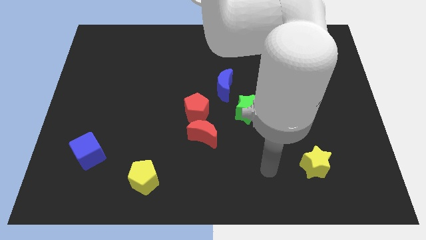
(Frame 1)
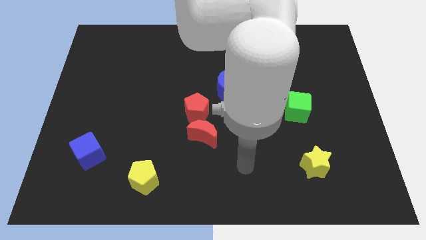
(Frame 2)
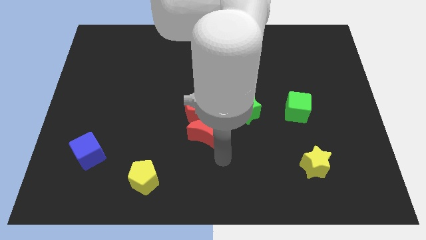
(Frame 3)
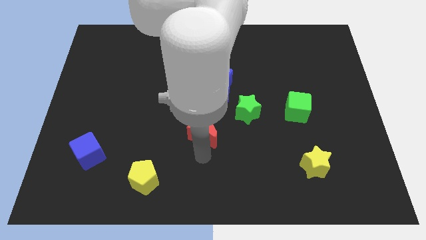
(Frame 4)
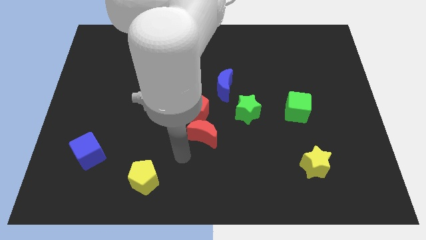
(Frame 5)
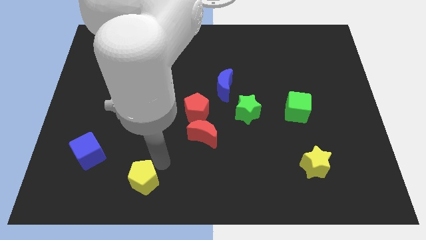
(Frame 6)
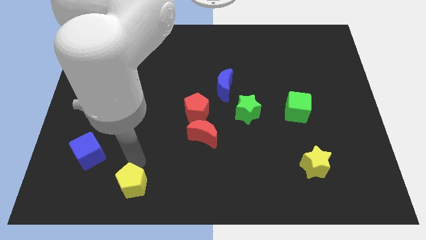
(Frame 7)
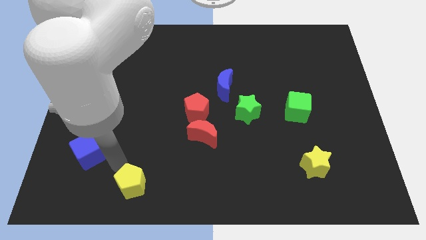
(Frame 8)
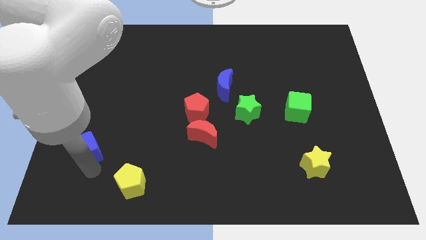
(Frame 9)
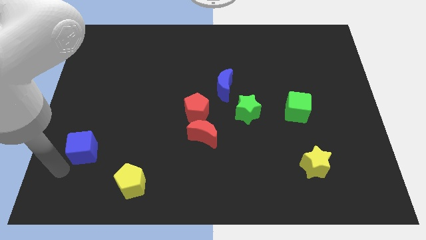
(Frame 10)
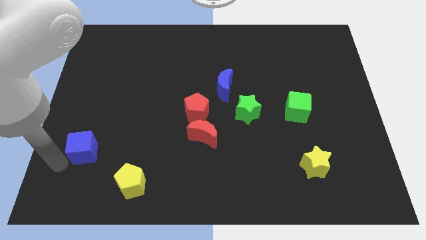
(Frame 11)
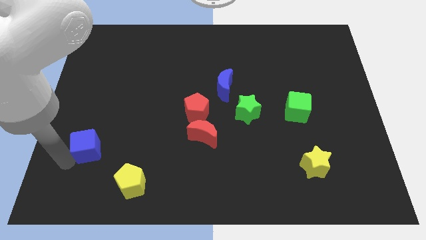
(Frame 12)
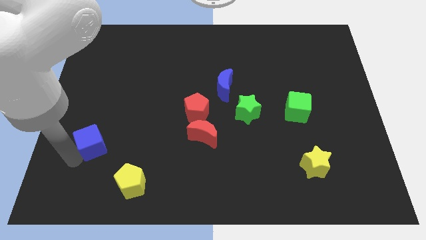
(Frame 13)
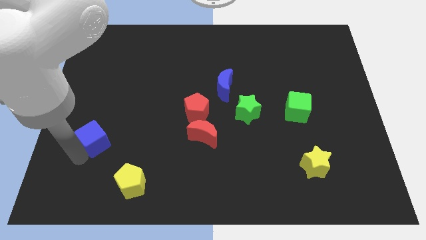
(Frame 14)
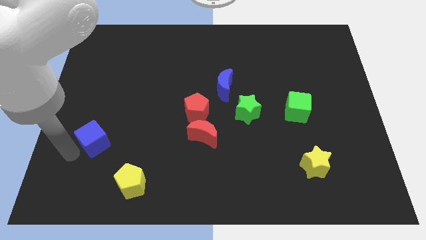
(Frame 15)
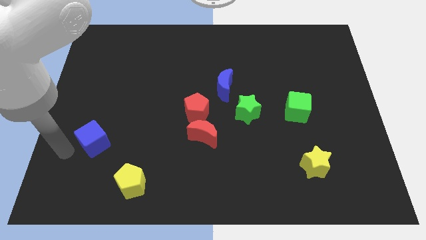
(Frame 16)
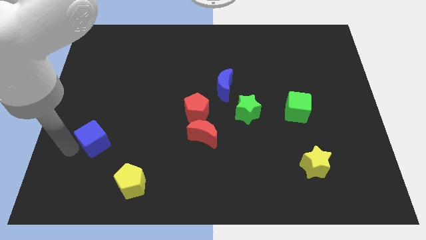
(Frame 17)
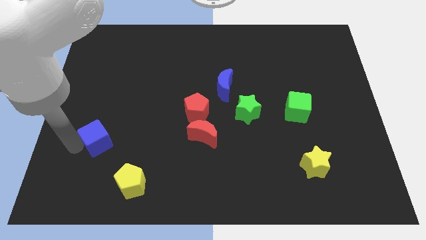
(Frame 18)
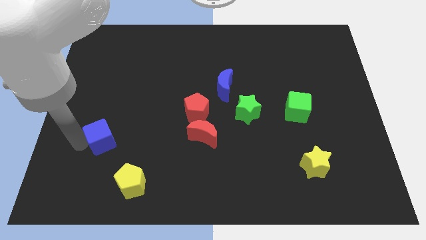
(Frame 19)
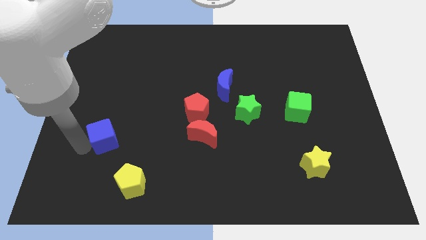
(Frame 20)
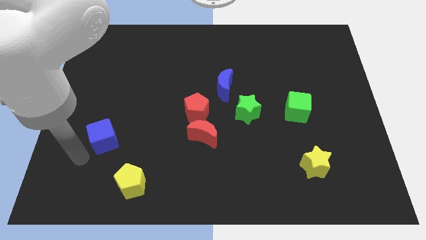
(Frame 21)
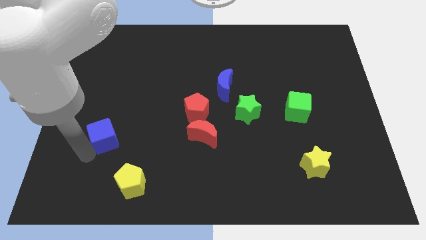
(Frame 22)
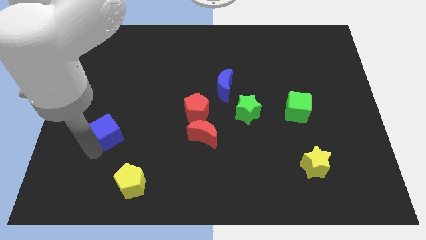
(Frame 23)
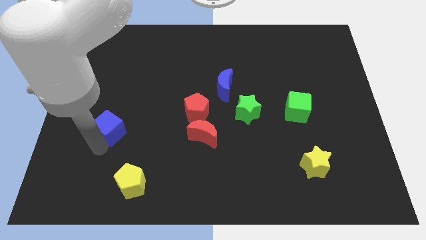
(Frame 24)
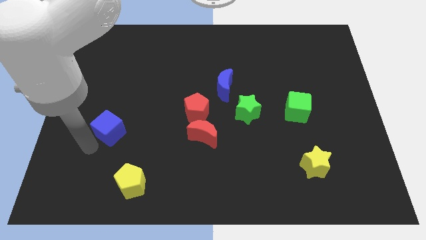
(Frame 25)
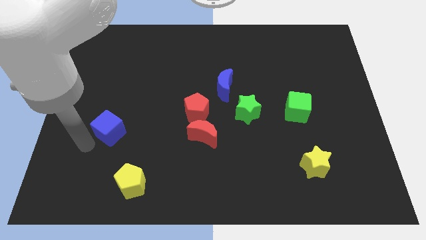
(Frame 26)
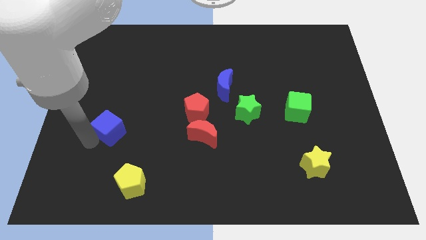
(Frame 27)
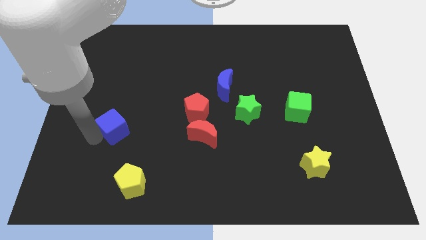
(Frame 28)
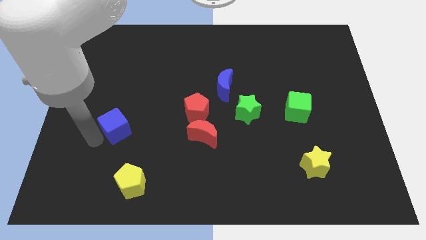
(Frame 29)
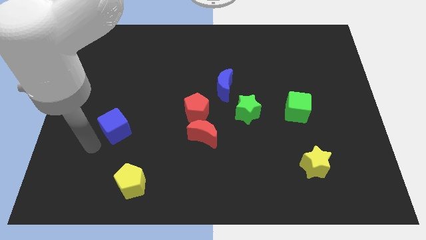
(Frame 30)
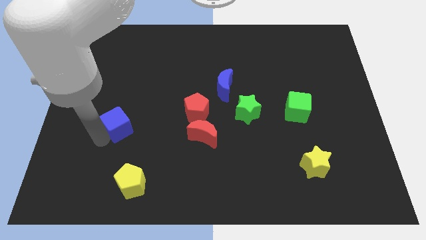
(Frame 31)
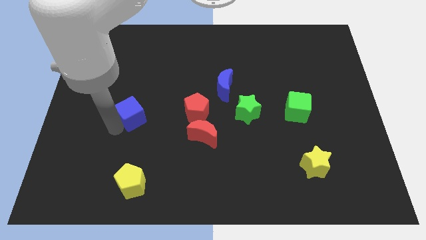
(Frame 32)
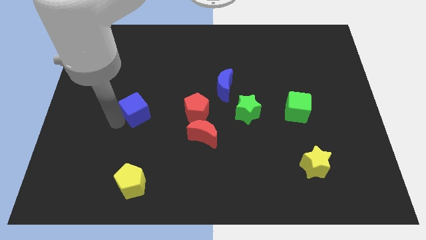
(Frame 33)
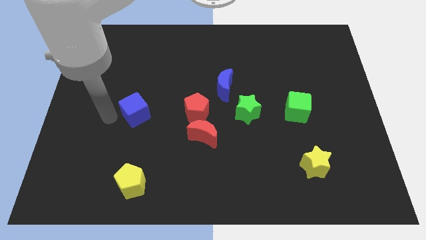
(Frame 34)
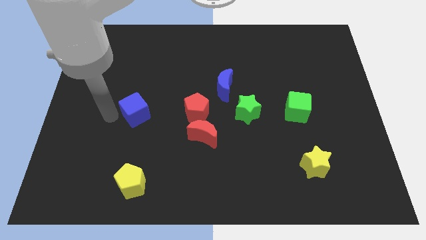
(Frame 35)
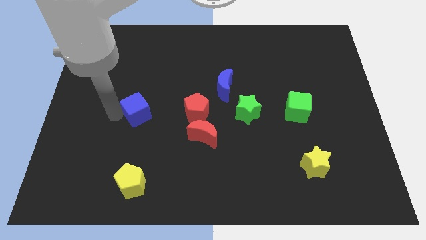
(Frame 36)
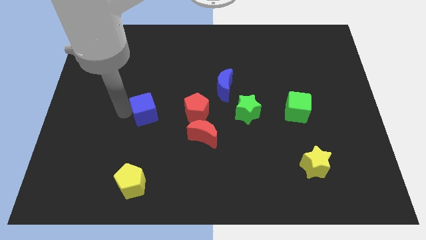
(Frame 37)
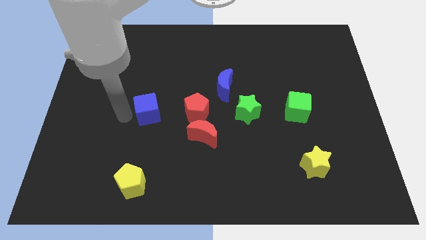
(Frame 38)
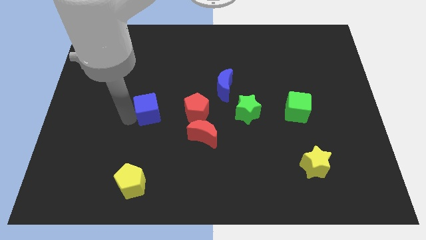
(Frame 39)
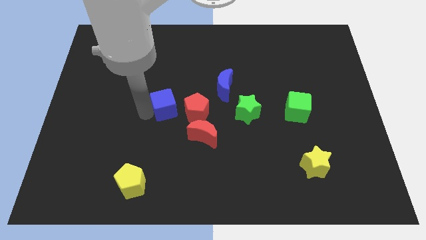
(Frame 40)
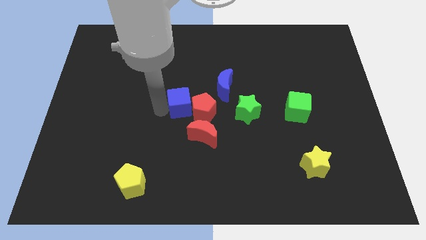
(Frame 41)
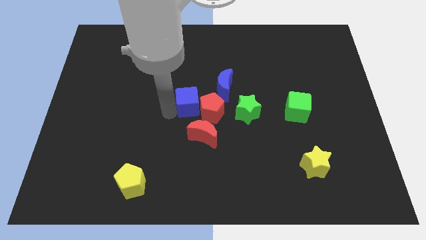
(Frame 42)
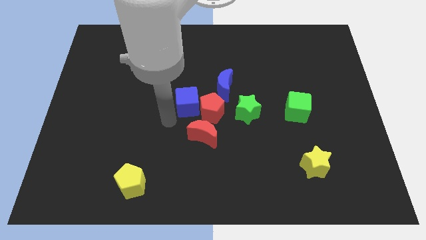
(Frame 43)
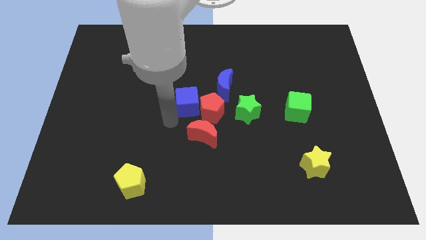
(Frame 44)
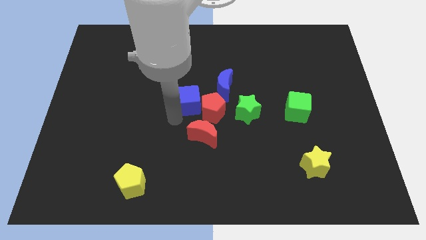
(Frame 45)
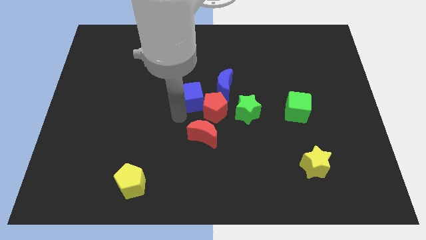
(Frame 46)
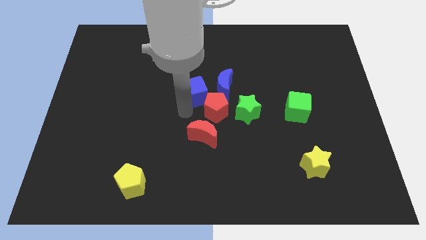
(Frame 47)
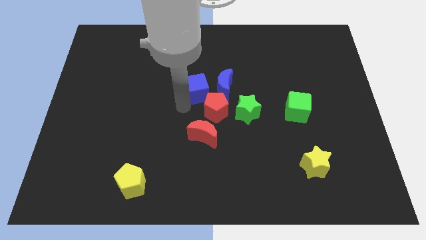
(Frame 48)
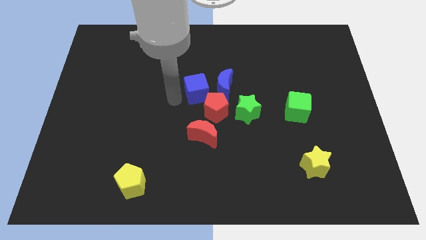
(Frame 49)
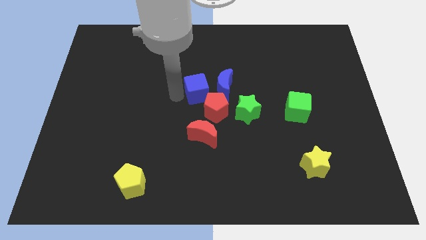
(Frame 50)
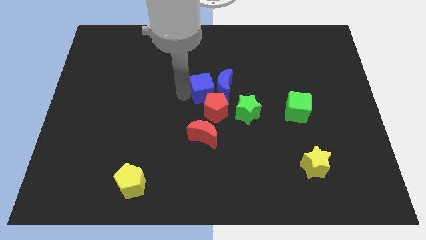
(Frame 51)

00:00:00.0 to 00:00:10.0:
put the blue cube towards the blue moon

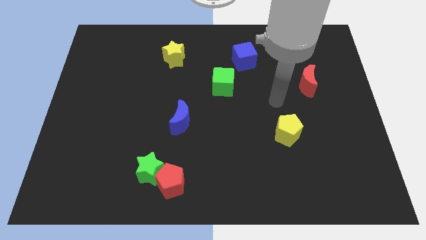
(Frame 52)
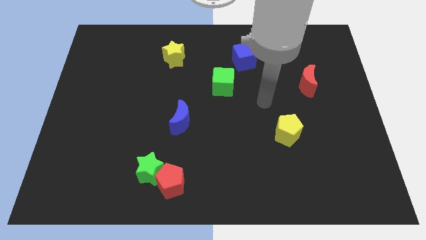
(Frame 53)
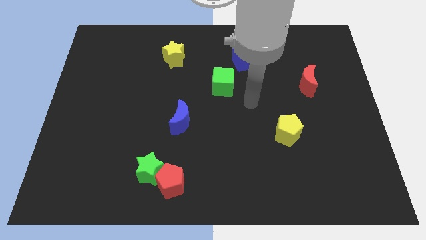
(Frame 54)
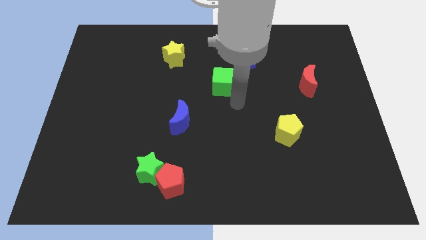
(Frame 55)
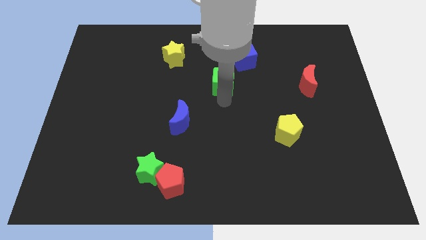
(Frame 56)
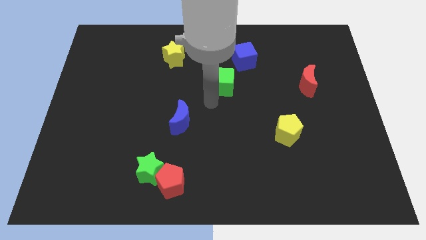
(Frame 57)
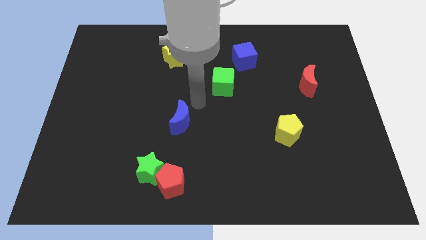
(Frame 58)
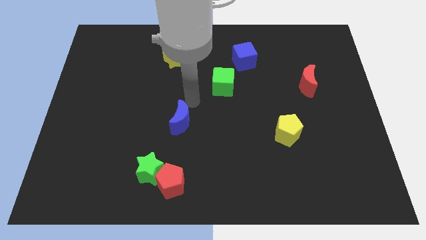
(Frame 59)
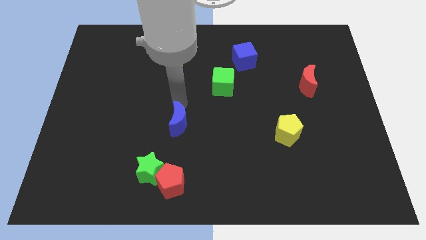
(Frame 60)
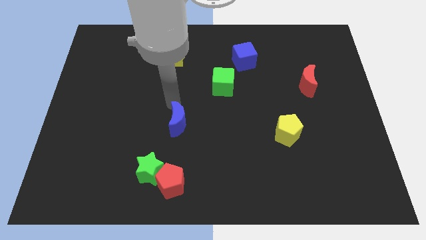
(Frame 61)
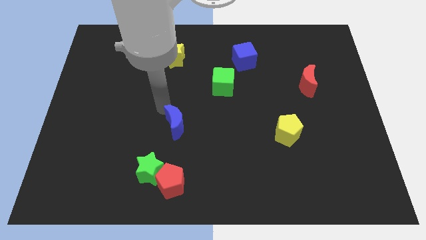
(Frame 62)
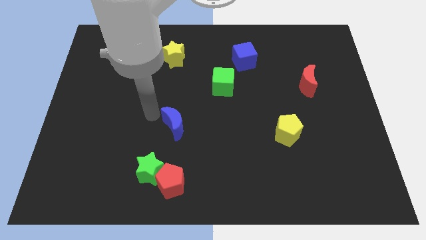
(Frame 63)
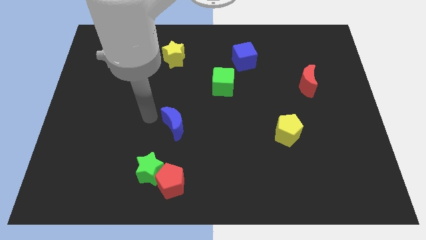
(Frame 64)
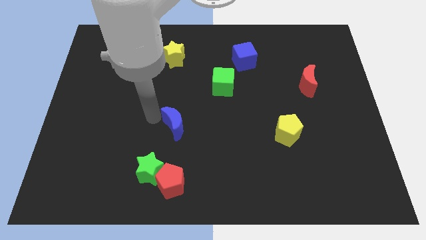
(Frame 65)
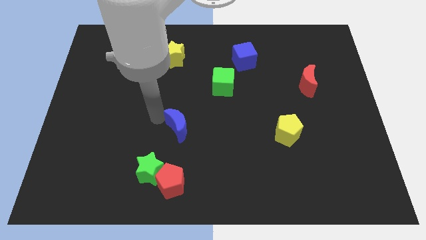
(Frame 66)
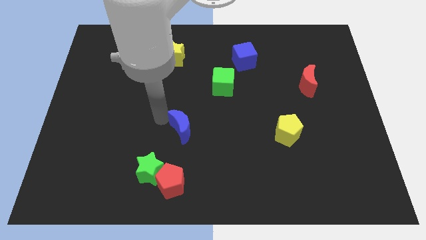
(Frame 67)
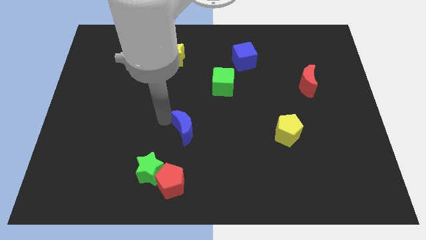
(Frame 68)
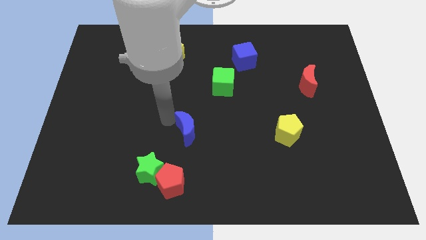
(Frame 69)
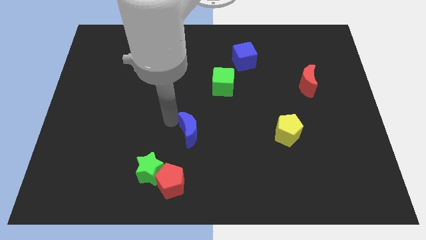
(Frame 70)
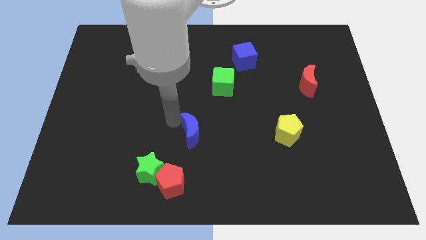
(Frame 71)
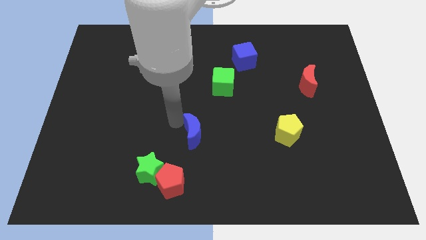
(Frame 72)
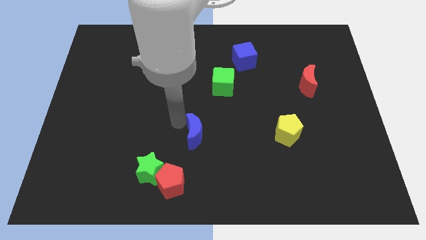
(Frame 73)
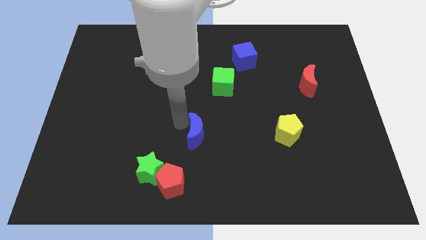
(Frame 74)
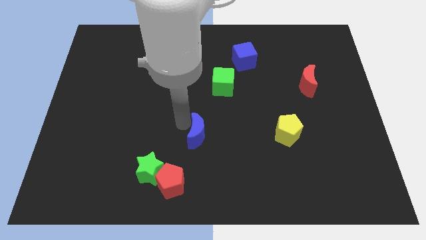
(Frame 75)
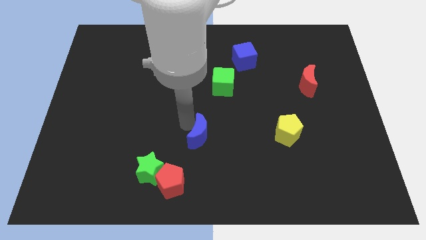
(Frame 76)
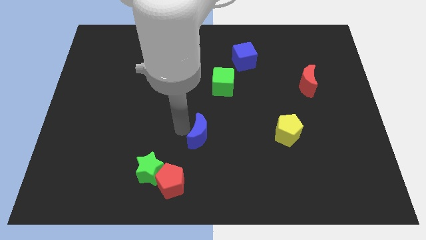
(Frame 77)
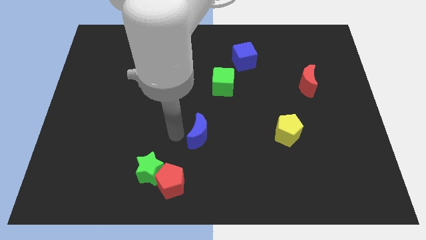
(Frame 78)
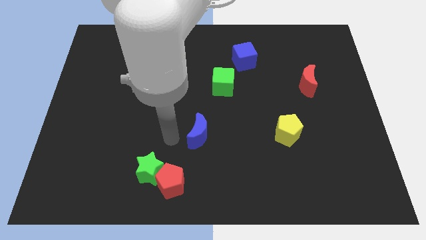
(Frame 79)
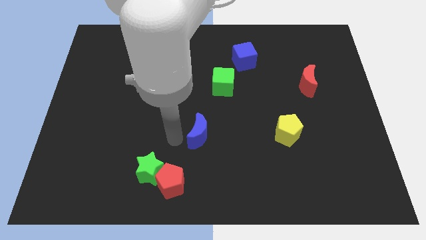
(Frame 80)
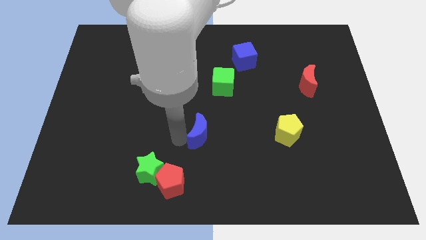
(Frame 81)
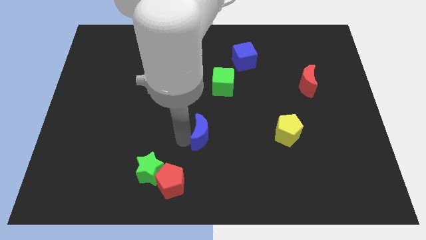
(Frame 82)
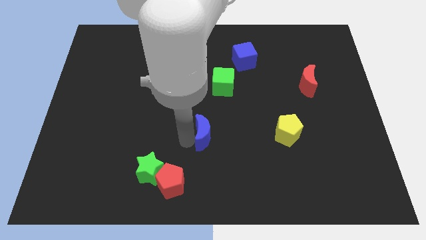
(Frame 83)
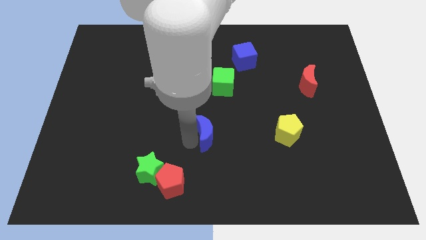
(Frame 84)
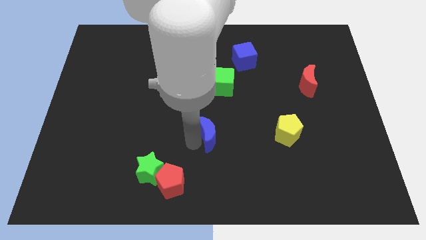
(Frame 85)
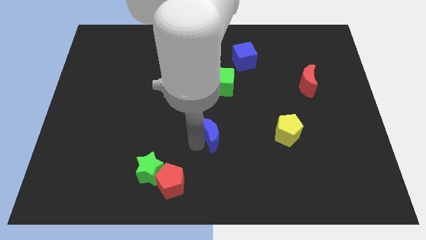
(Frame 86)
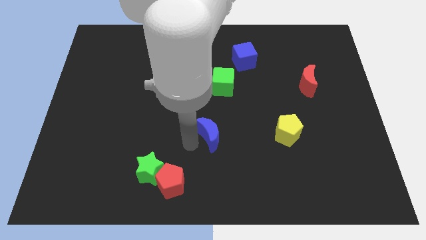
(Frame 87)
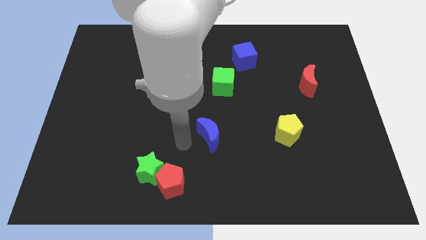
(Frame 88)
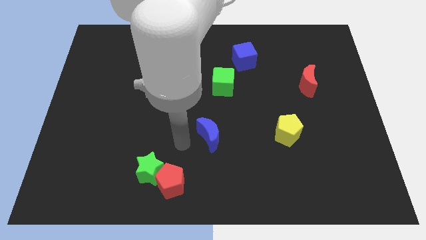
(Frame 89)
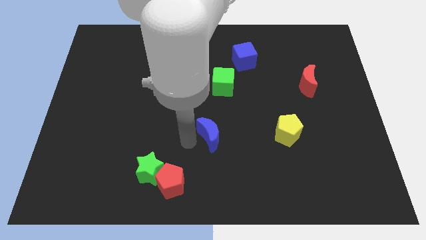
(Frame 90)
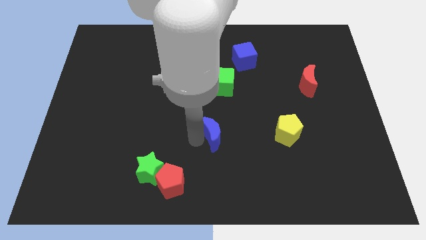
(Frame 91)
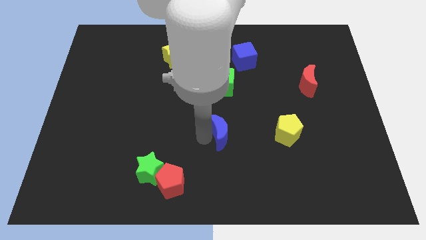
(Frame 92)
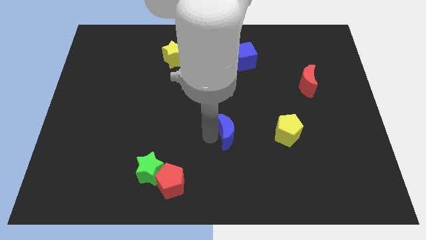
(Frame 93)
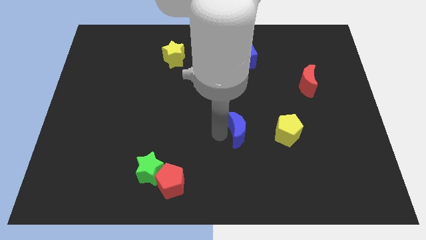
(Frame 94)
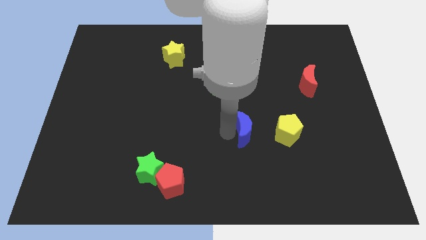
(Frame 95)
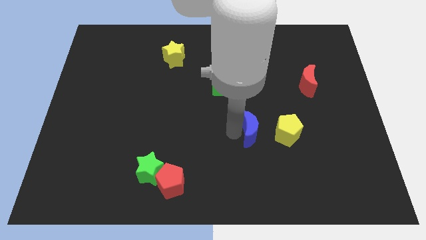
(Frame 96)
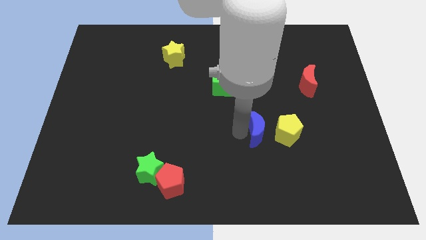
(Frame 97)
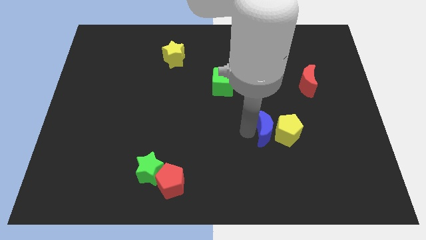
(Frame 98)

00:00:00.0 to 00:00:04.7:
push the blue moon to the yellow pentagon
